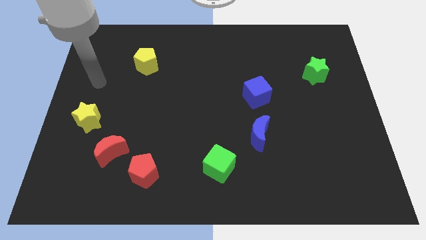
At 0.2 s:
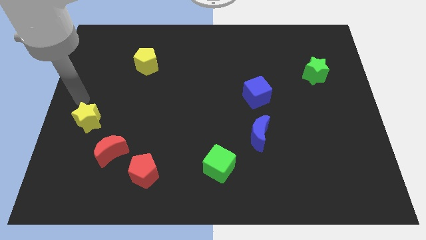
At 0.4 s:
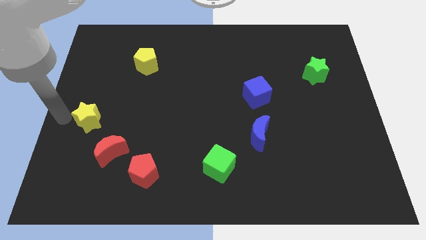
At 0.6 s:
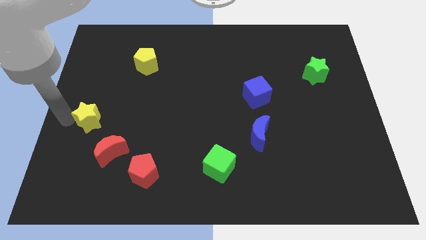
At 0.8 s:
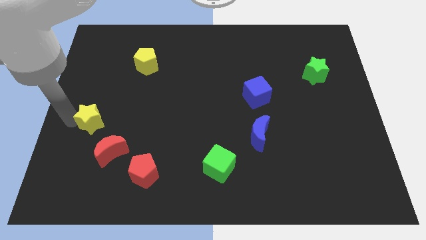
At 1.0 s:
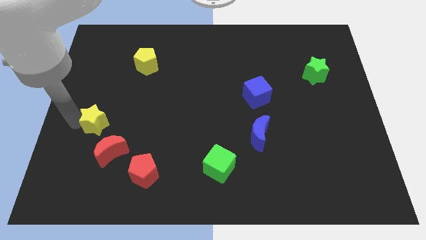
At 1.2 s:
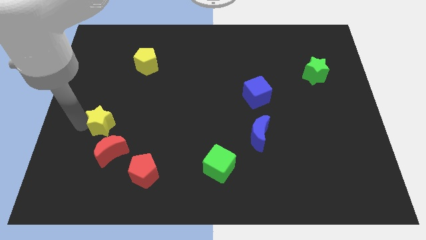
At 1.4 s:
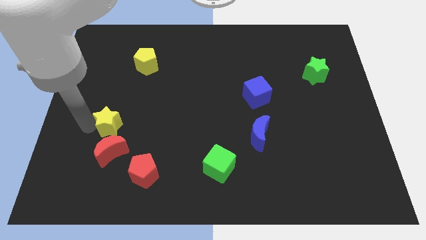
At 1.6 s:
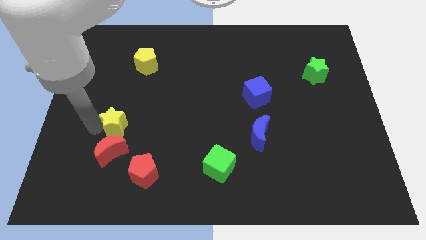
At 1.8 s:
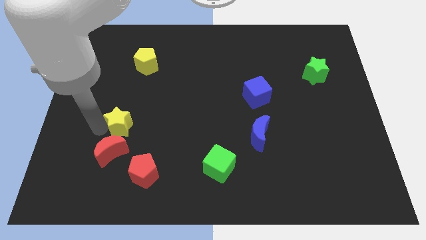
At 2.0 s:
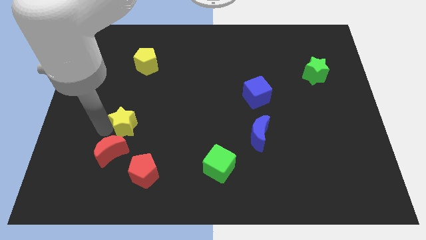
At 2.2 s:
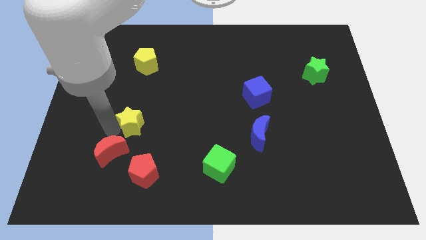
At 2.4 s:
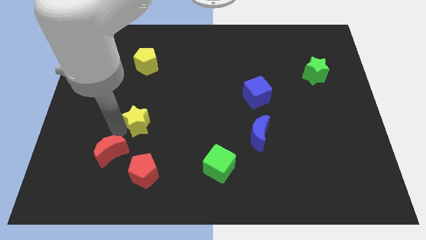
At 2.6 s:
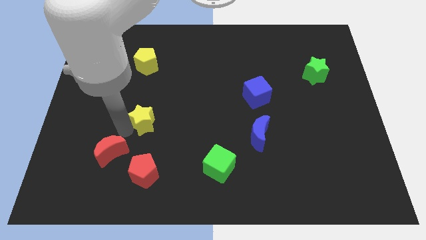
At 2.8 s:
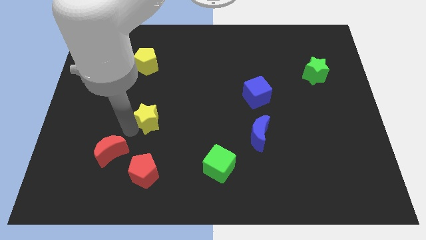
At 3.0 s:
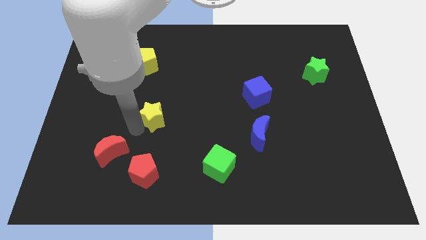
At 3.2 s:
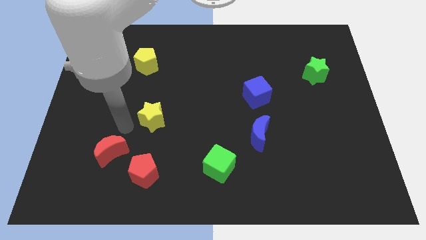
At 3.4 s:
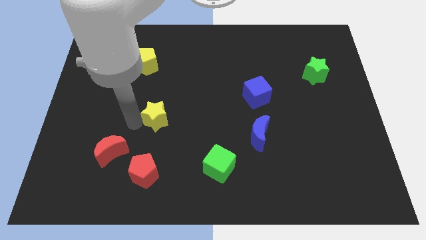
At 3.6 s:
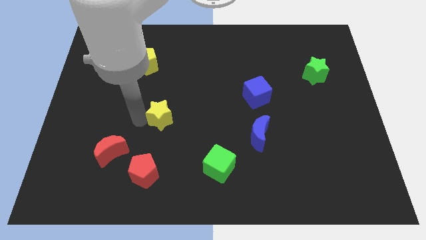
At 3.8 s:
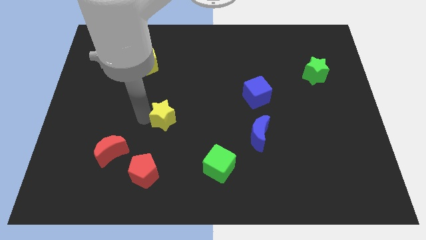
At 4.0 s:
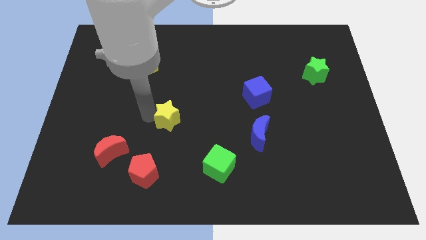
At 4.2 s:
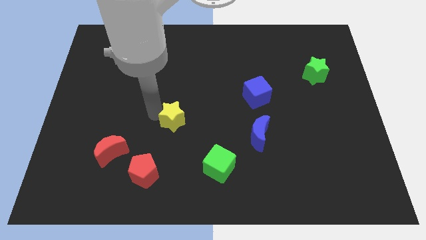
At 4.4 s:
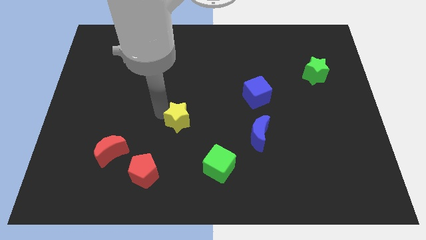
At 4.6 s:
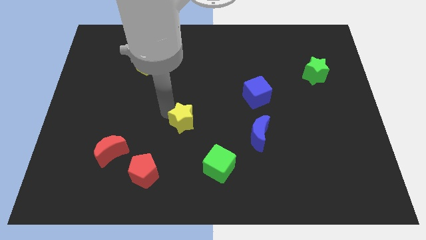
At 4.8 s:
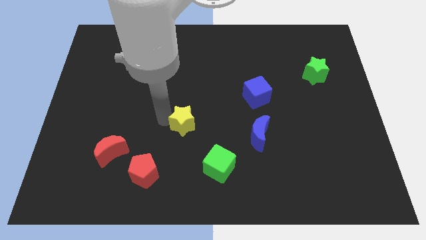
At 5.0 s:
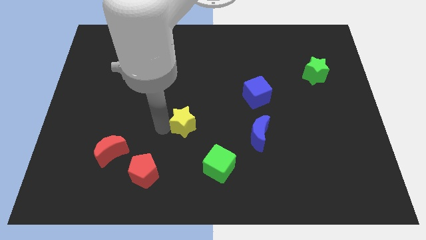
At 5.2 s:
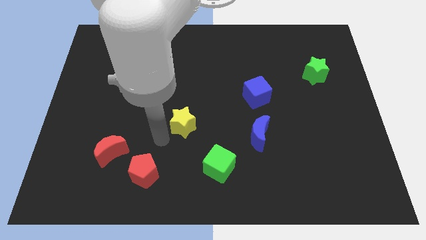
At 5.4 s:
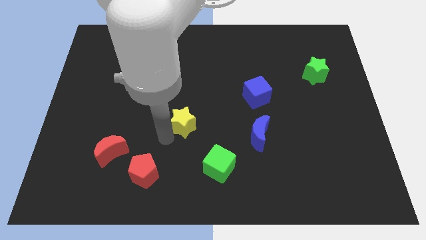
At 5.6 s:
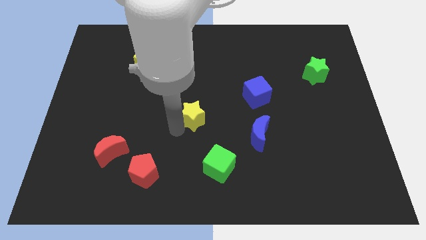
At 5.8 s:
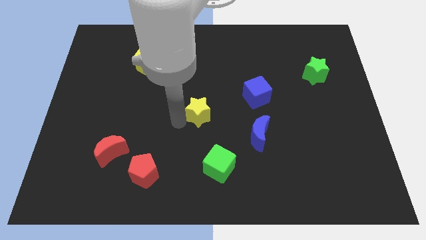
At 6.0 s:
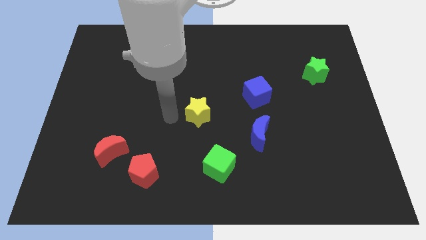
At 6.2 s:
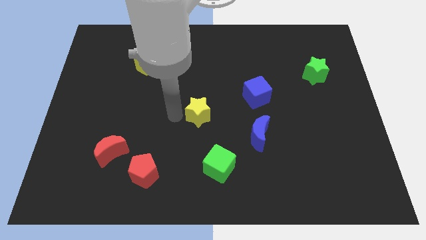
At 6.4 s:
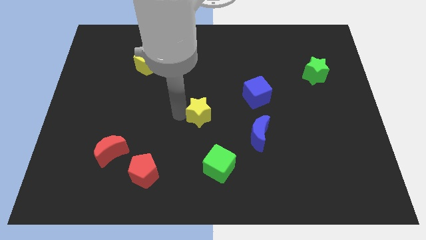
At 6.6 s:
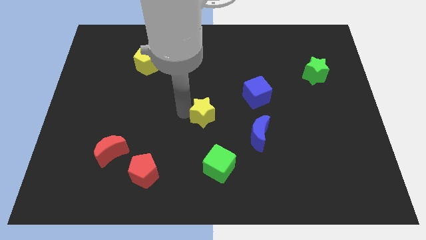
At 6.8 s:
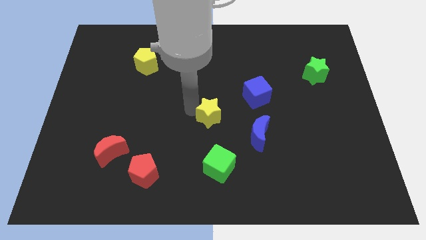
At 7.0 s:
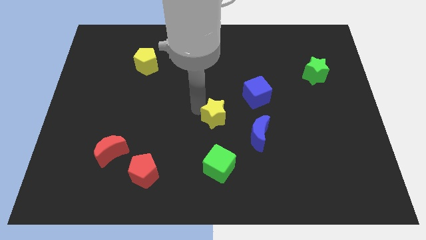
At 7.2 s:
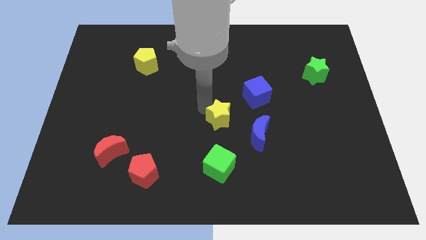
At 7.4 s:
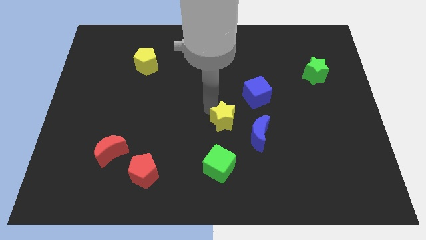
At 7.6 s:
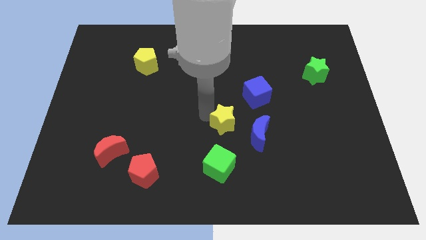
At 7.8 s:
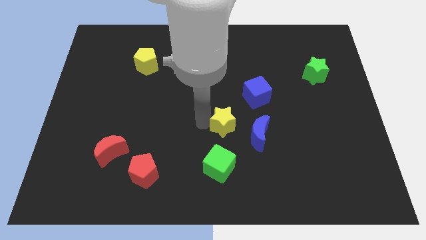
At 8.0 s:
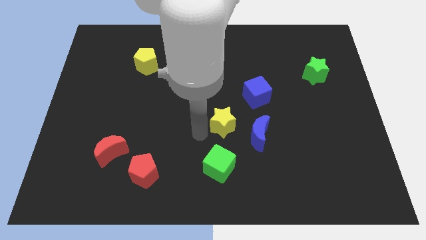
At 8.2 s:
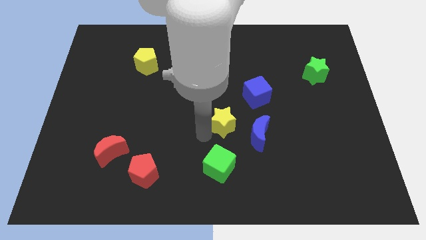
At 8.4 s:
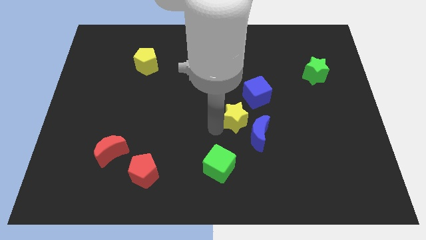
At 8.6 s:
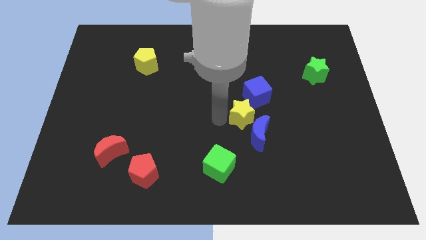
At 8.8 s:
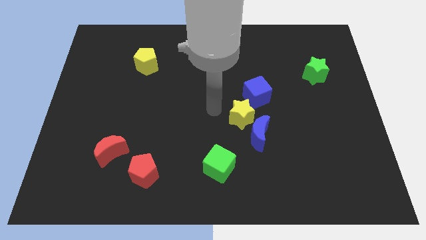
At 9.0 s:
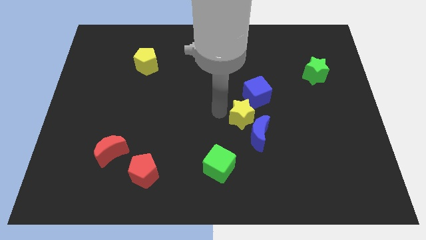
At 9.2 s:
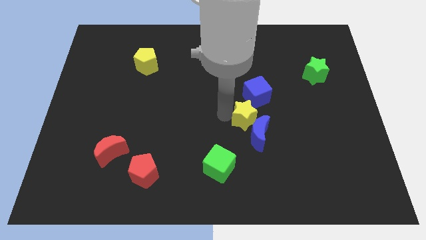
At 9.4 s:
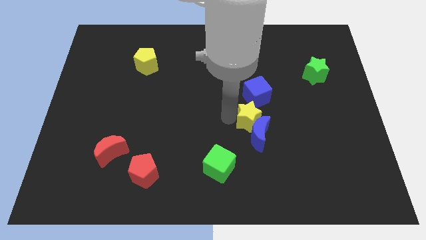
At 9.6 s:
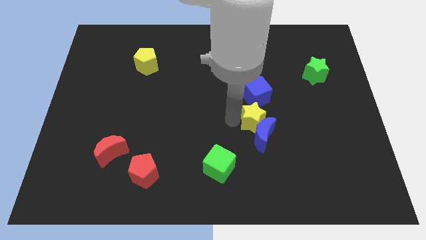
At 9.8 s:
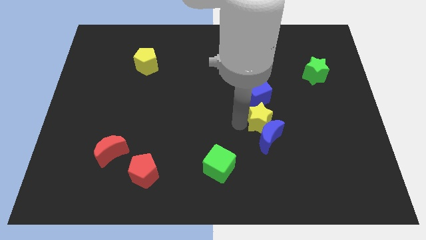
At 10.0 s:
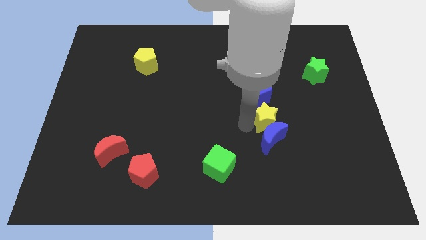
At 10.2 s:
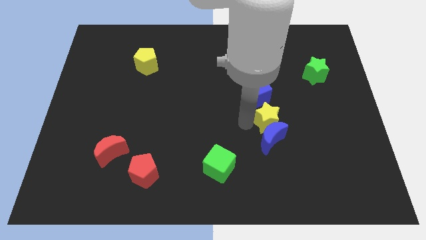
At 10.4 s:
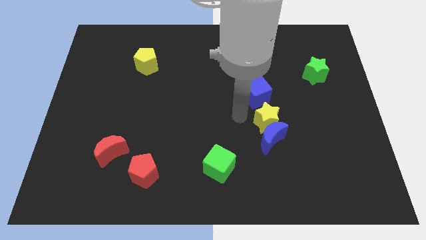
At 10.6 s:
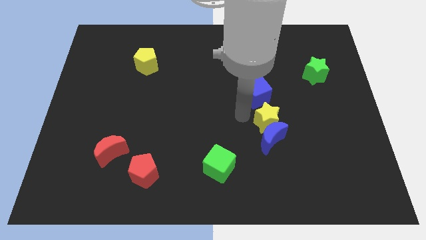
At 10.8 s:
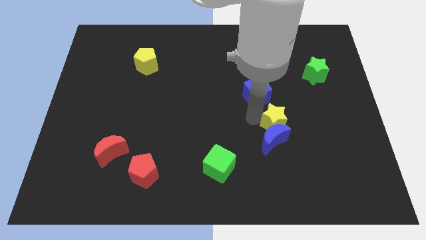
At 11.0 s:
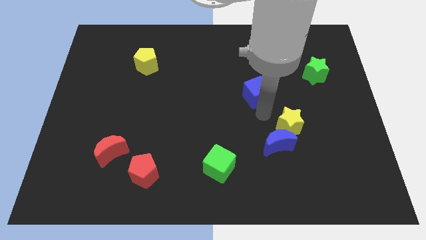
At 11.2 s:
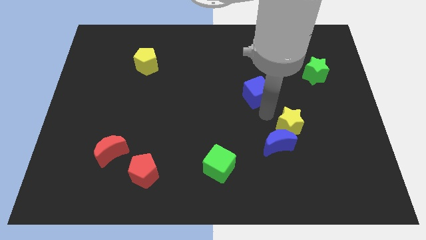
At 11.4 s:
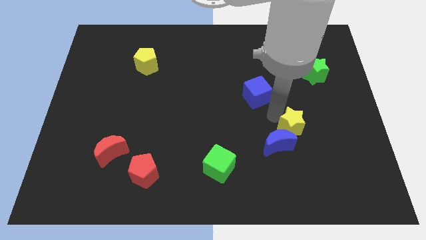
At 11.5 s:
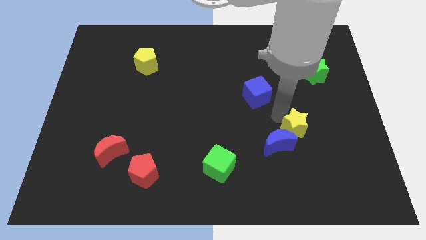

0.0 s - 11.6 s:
push the yellow star right of the blue moon

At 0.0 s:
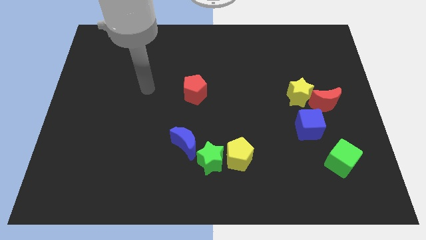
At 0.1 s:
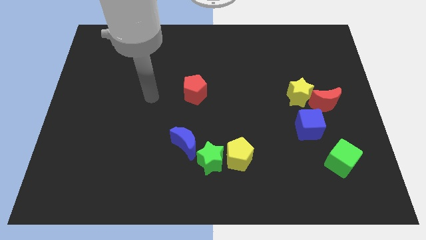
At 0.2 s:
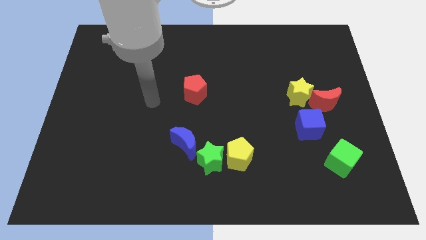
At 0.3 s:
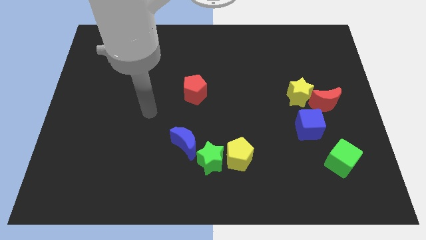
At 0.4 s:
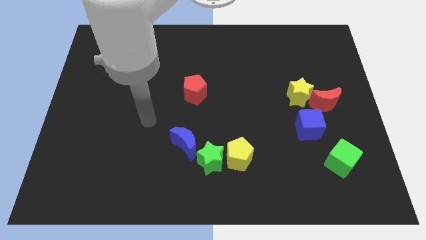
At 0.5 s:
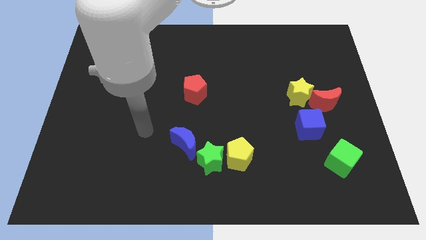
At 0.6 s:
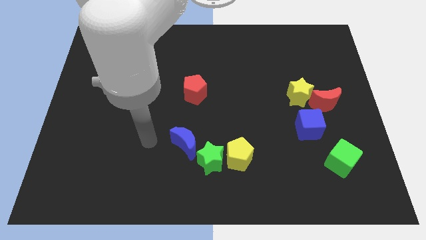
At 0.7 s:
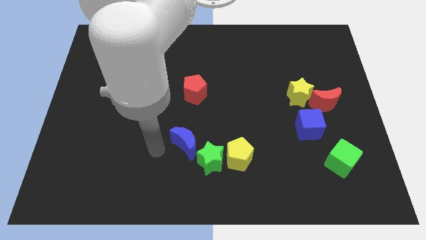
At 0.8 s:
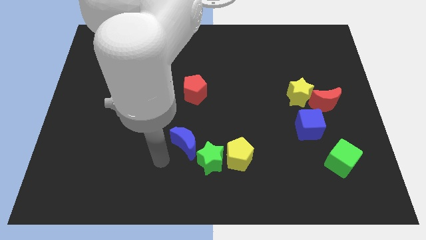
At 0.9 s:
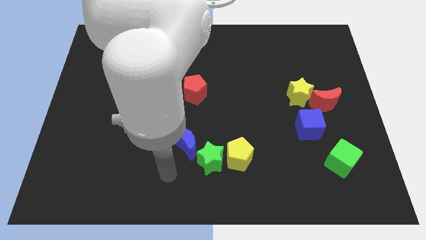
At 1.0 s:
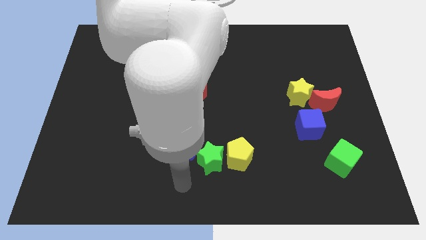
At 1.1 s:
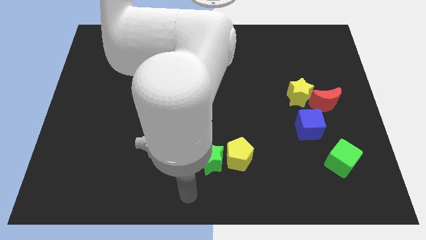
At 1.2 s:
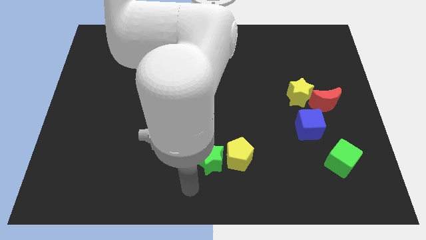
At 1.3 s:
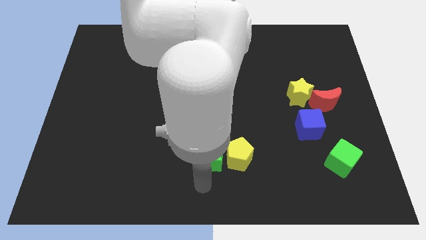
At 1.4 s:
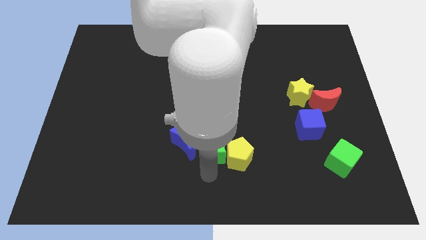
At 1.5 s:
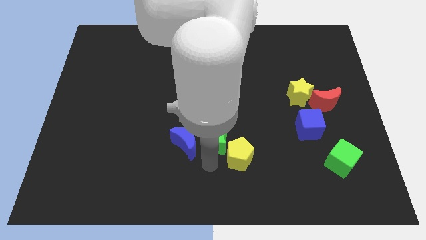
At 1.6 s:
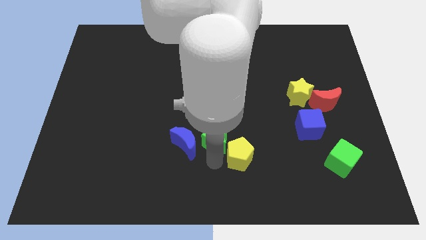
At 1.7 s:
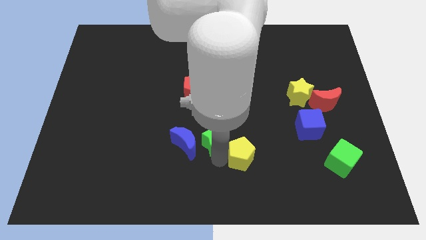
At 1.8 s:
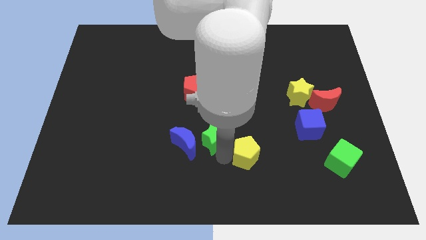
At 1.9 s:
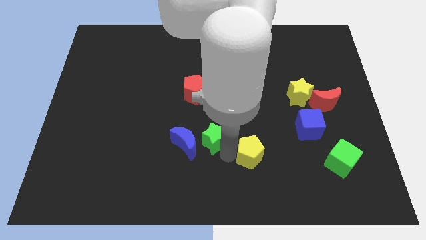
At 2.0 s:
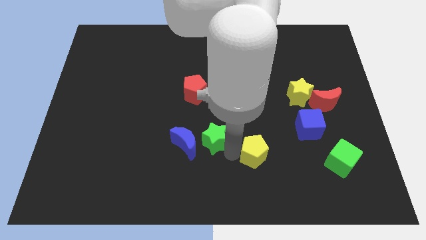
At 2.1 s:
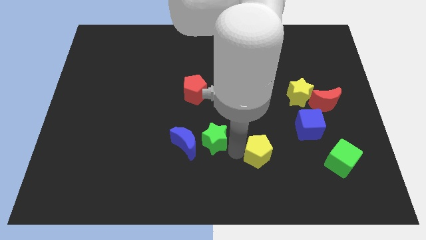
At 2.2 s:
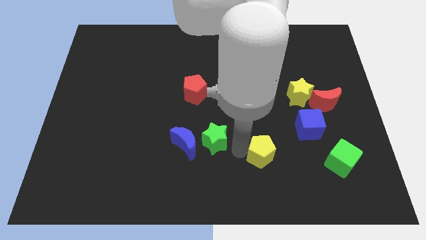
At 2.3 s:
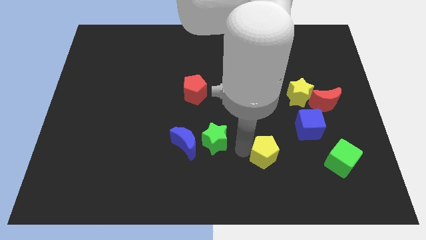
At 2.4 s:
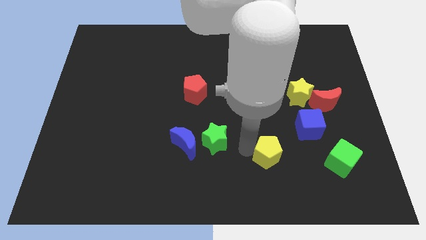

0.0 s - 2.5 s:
slide the yellow pentagon to the bottom left of the blue cube
